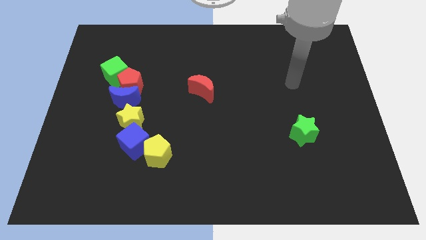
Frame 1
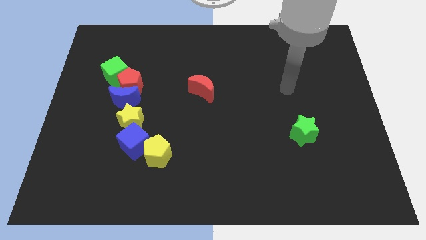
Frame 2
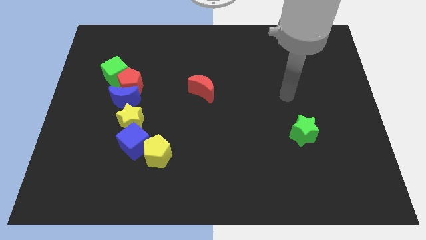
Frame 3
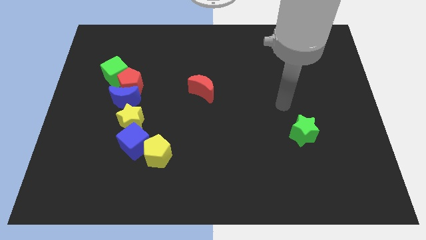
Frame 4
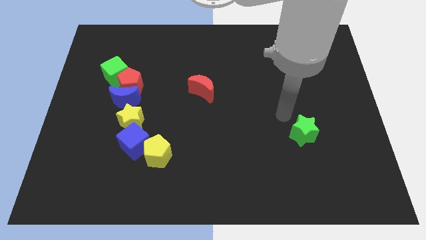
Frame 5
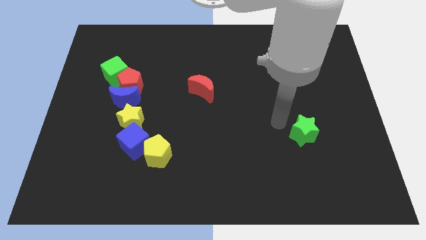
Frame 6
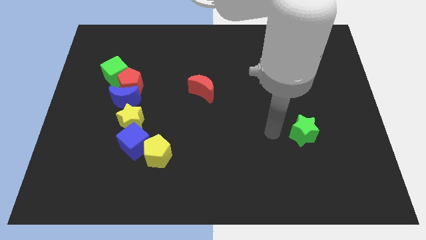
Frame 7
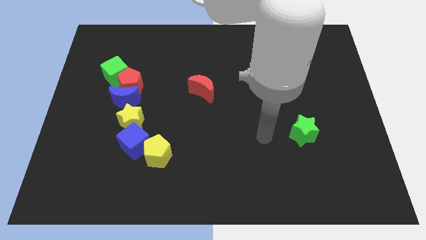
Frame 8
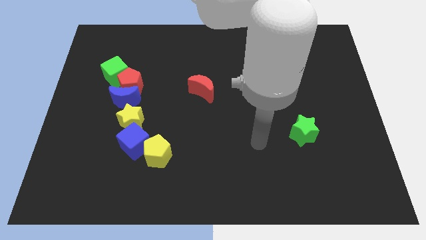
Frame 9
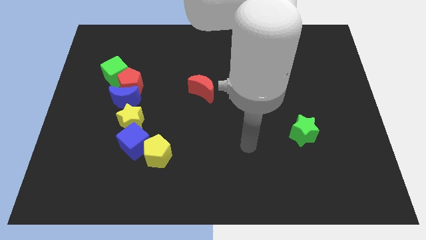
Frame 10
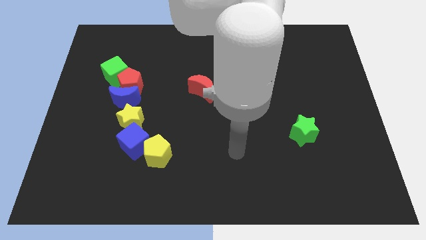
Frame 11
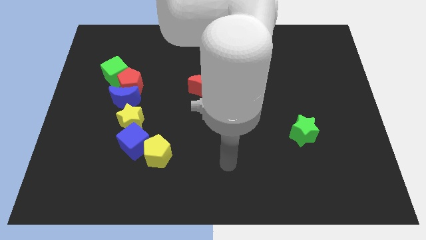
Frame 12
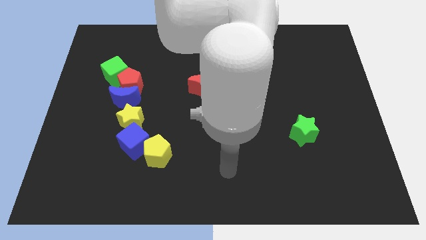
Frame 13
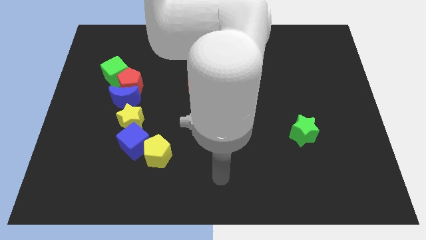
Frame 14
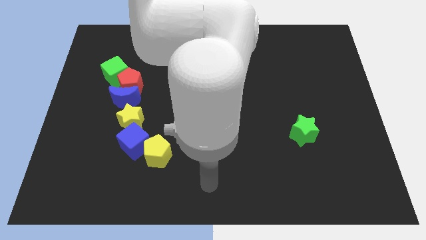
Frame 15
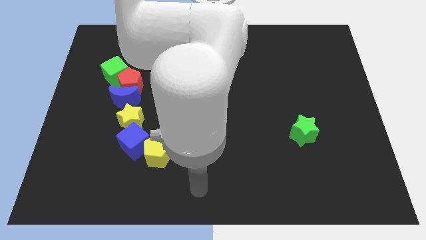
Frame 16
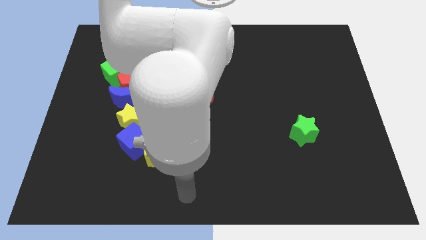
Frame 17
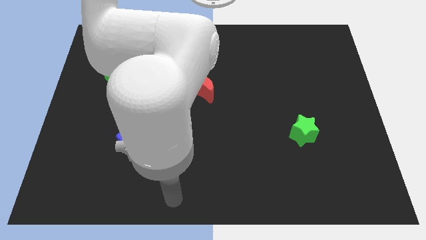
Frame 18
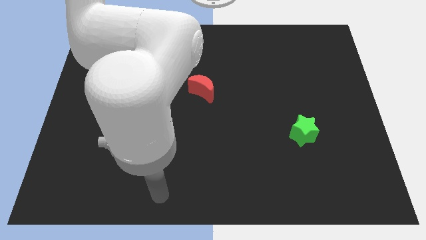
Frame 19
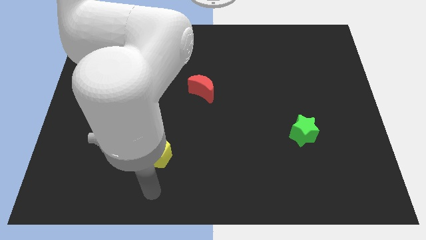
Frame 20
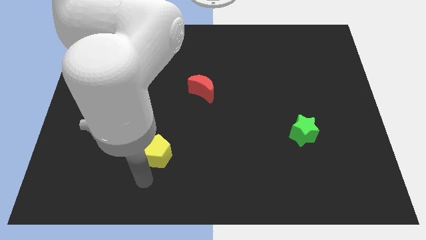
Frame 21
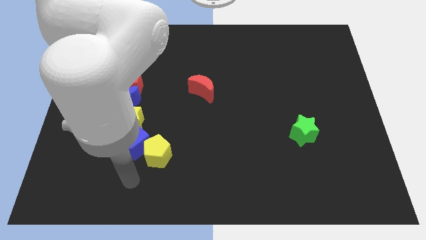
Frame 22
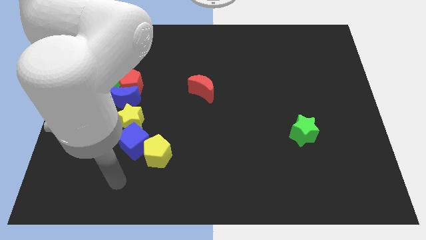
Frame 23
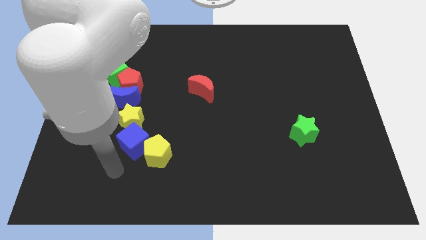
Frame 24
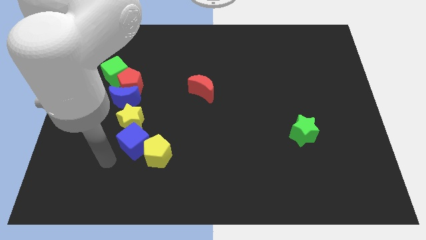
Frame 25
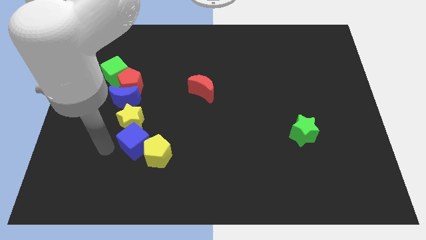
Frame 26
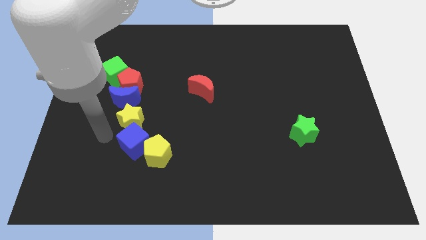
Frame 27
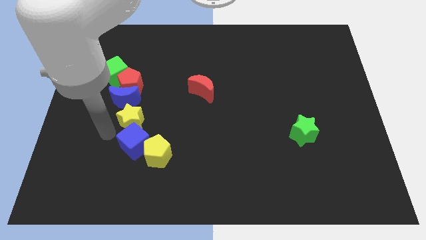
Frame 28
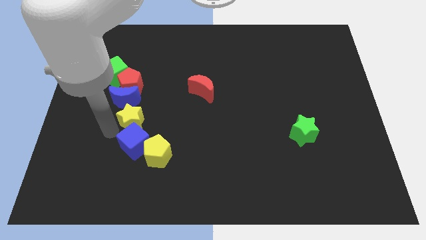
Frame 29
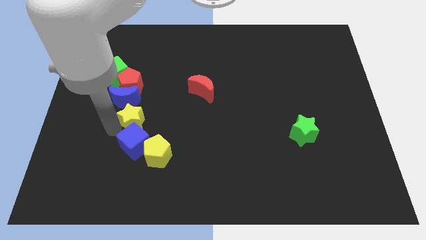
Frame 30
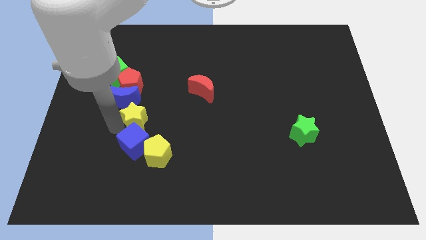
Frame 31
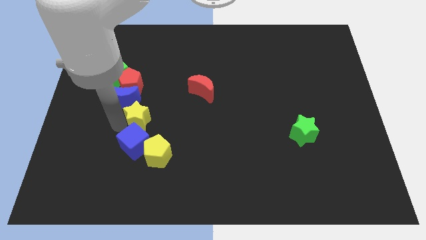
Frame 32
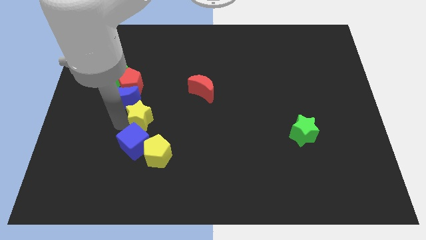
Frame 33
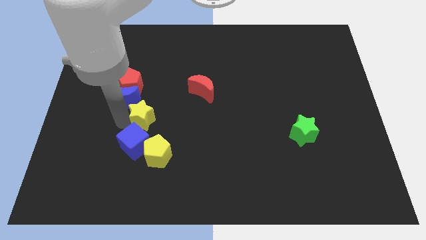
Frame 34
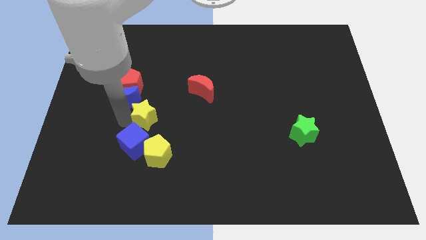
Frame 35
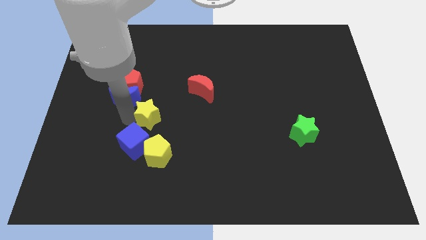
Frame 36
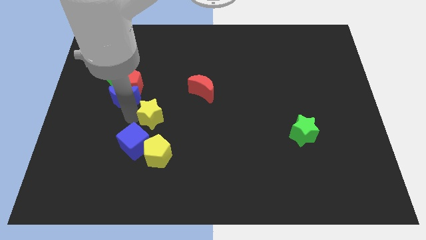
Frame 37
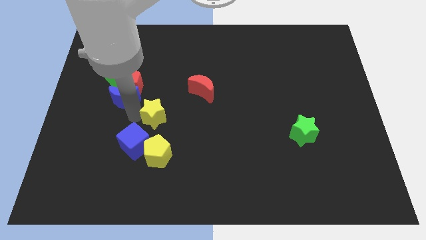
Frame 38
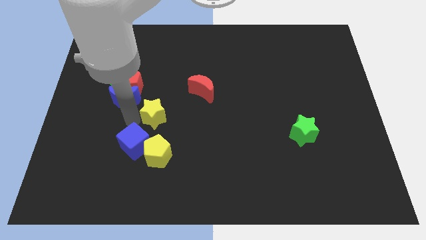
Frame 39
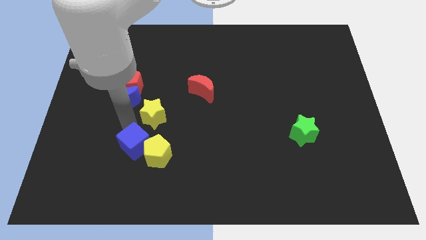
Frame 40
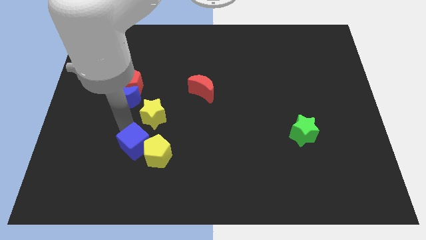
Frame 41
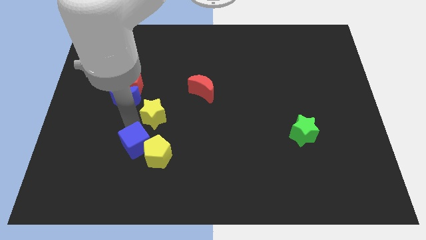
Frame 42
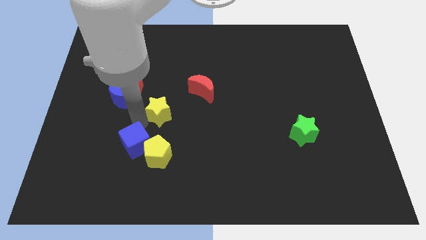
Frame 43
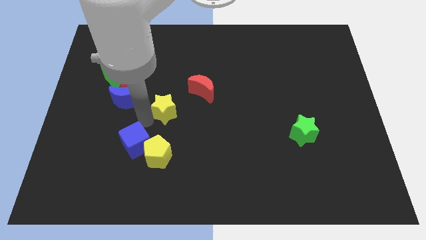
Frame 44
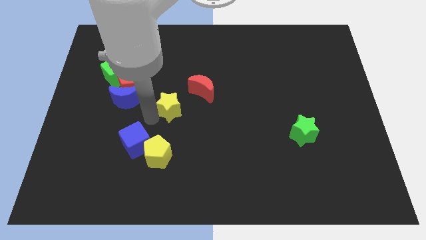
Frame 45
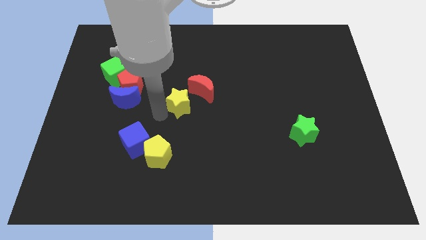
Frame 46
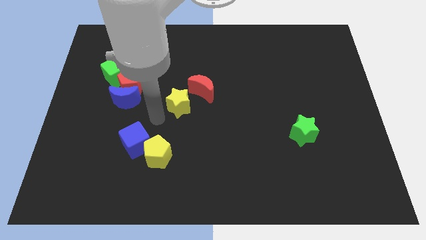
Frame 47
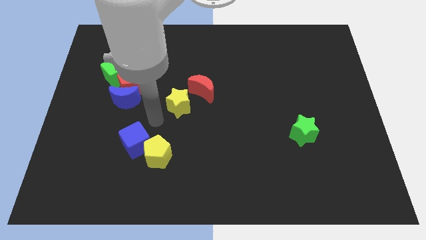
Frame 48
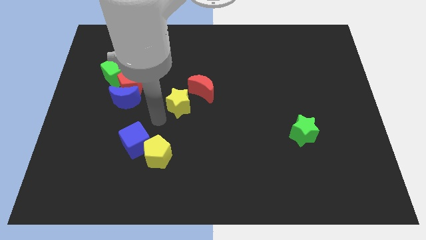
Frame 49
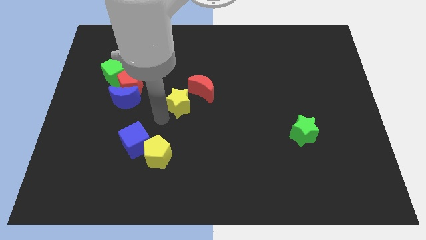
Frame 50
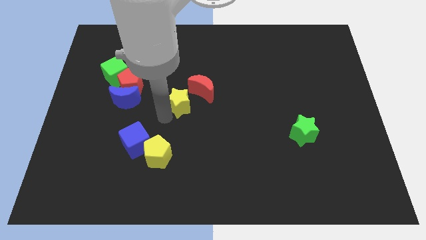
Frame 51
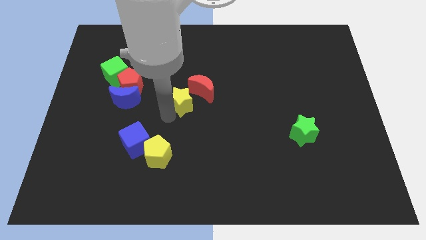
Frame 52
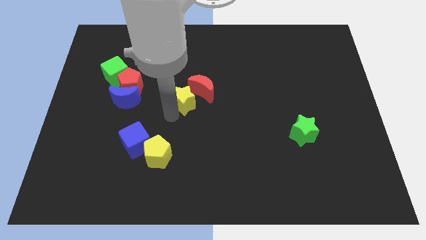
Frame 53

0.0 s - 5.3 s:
push the yellow star to the red moon

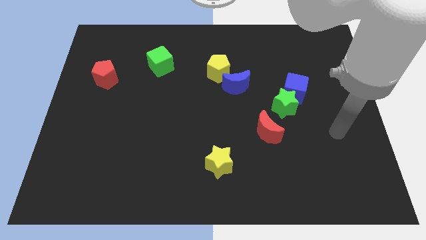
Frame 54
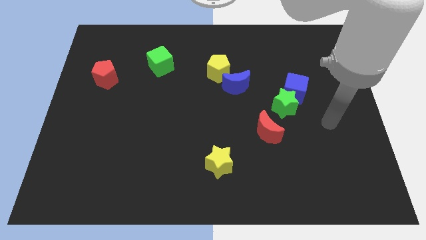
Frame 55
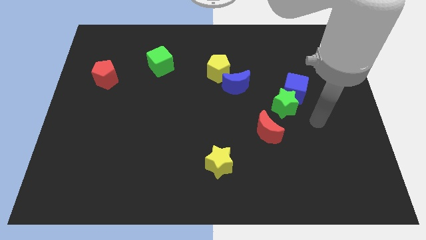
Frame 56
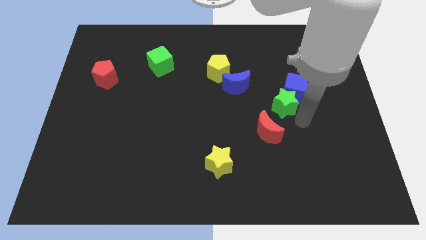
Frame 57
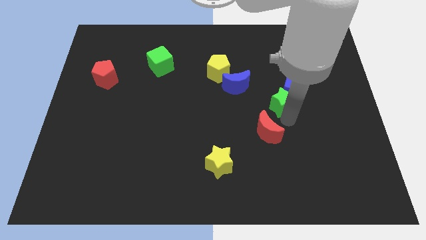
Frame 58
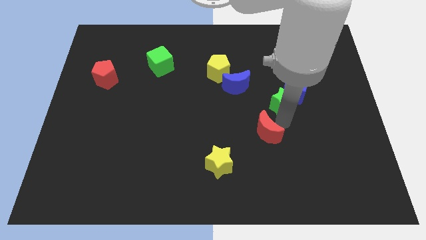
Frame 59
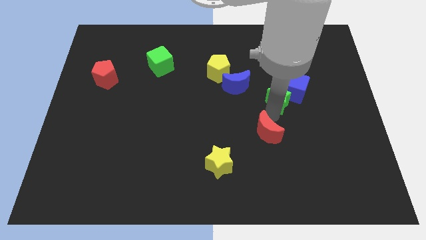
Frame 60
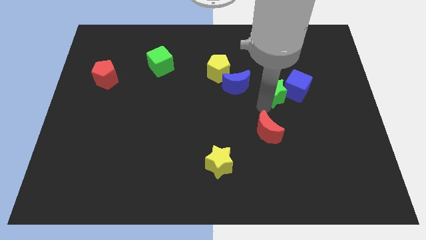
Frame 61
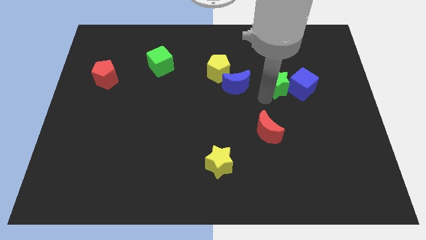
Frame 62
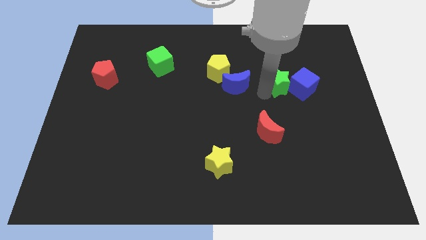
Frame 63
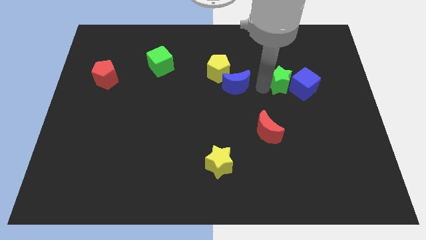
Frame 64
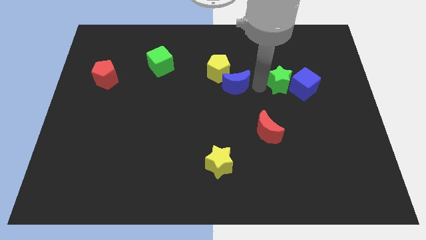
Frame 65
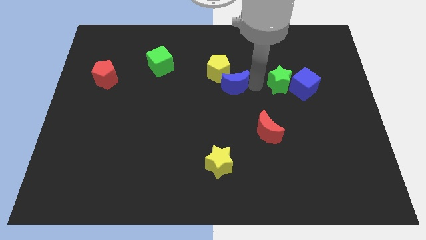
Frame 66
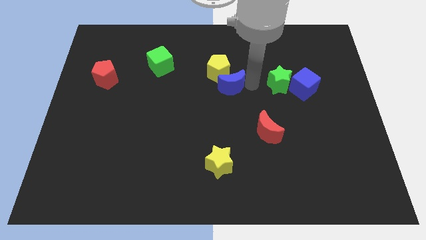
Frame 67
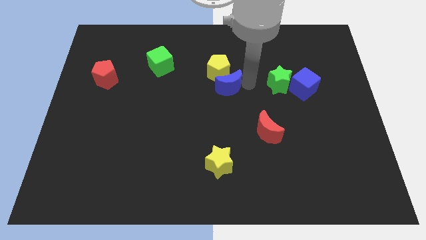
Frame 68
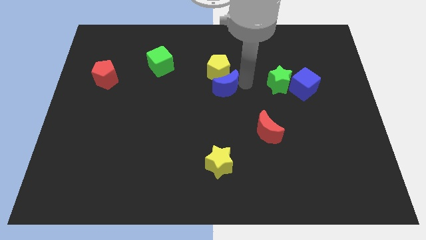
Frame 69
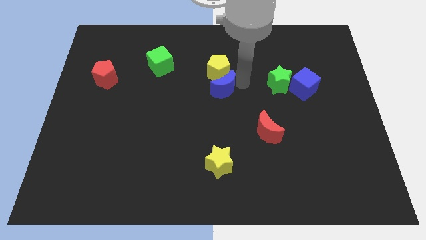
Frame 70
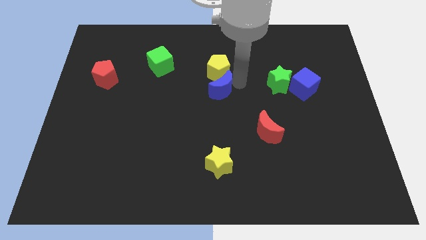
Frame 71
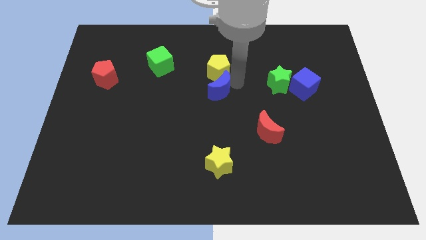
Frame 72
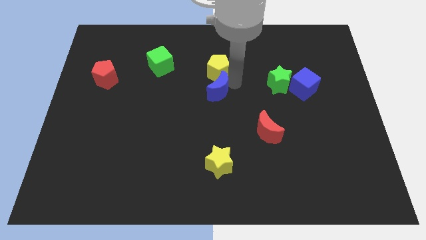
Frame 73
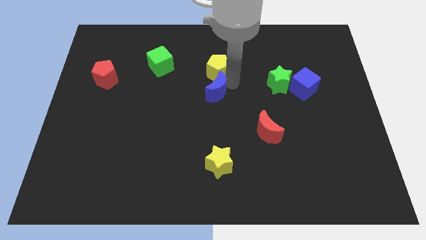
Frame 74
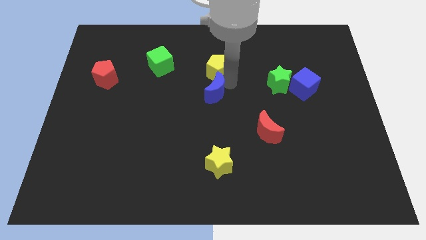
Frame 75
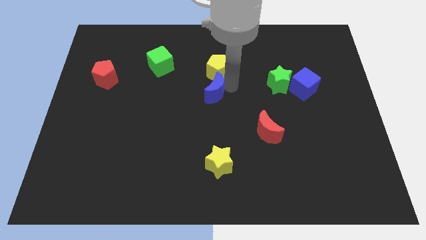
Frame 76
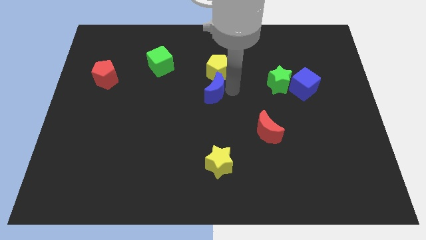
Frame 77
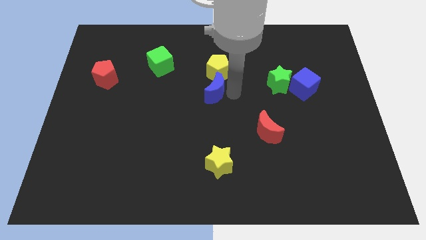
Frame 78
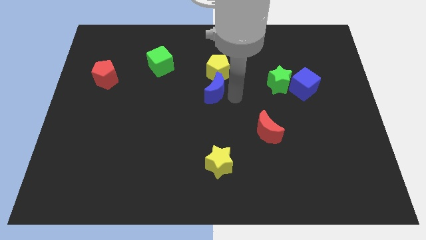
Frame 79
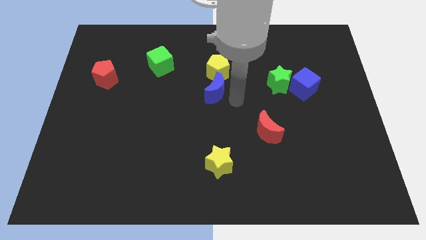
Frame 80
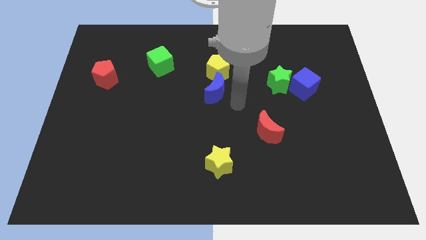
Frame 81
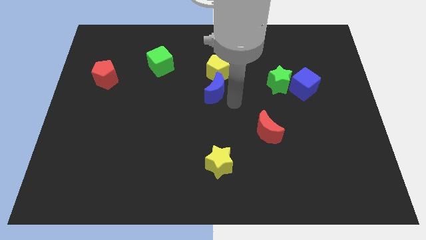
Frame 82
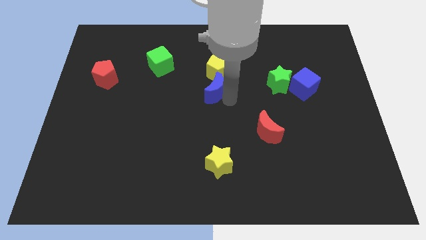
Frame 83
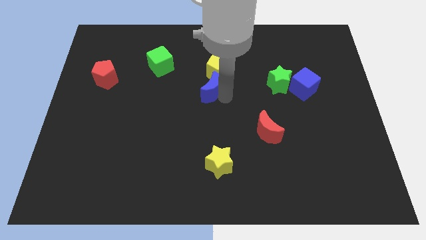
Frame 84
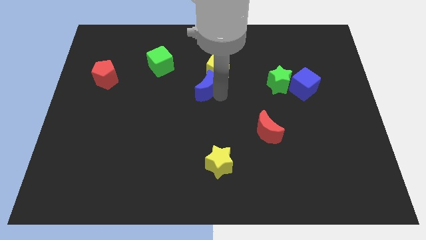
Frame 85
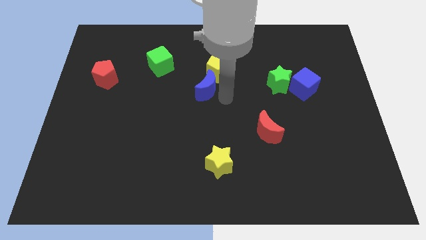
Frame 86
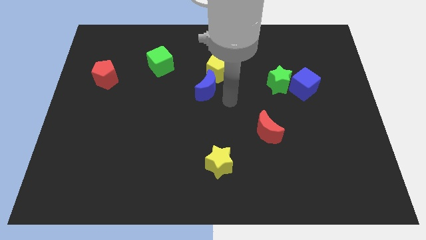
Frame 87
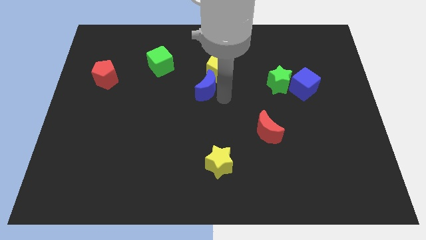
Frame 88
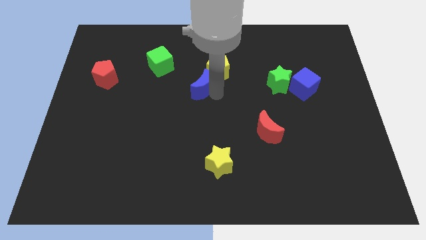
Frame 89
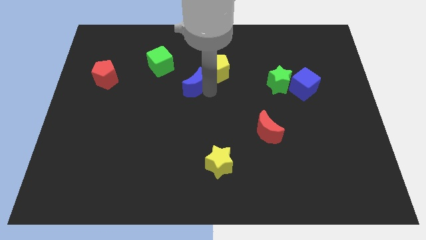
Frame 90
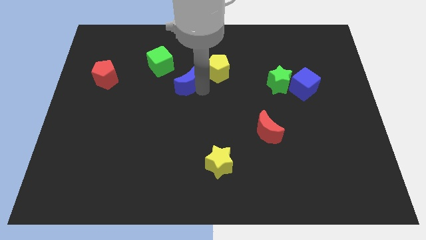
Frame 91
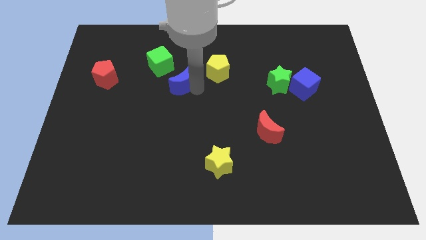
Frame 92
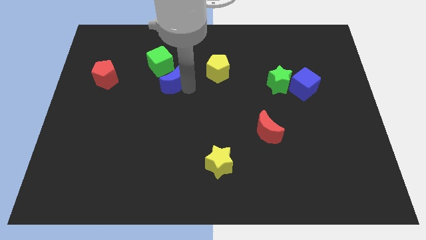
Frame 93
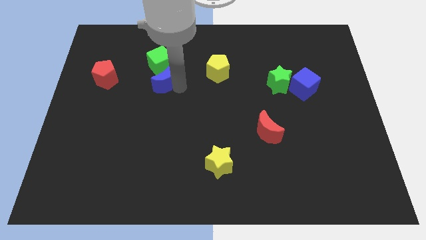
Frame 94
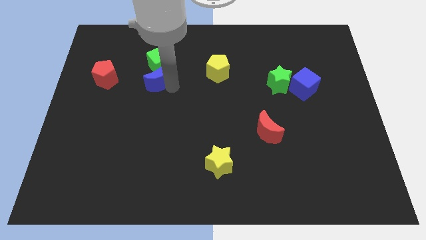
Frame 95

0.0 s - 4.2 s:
push the blue moon close to the green cube
